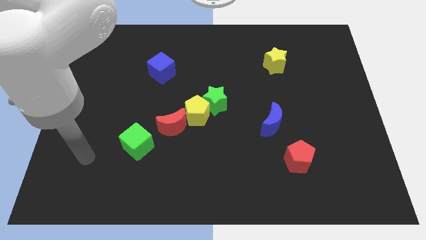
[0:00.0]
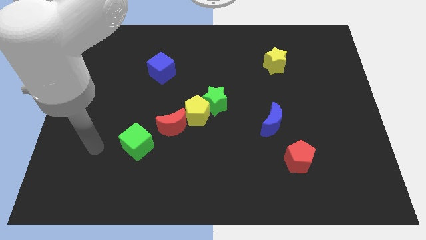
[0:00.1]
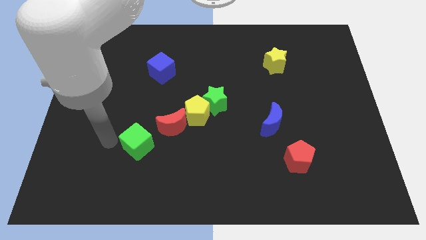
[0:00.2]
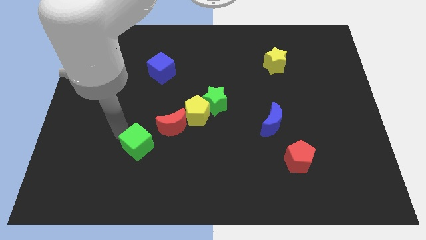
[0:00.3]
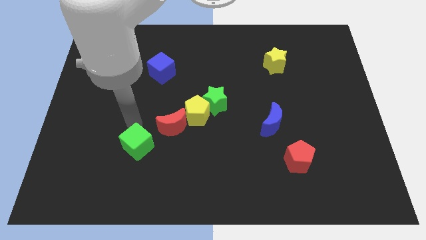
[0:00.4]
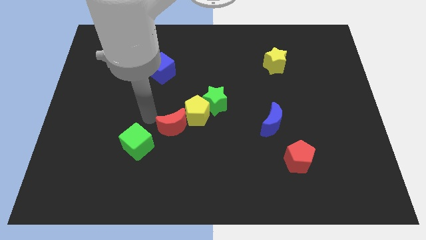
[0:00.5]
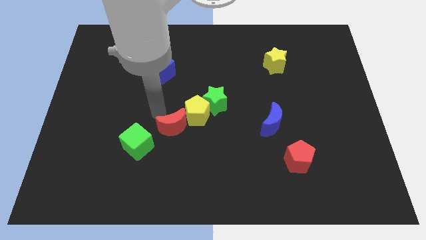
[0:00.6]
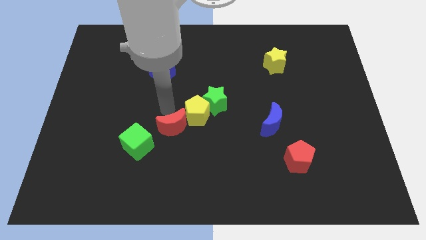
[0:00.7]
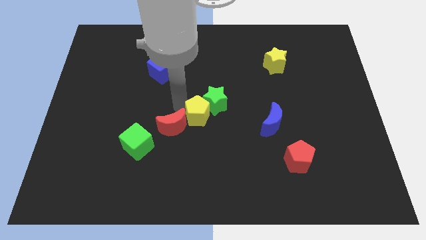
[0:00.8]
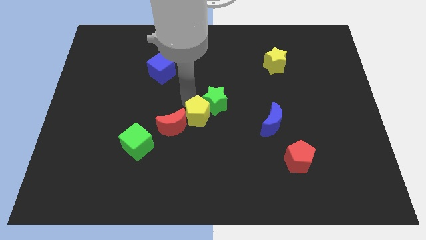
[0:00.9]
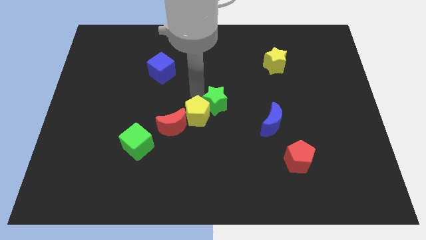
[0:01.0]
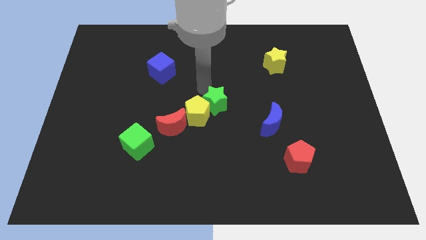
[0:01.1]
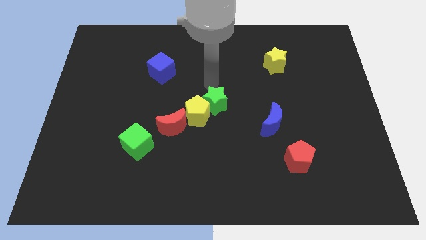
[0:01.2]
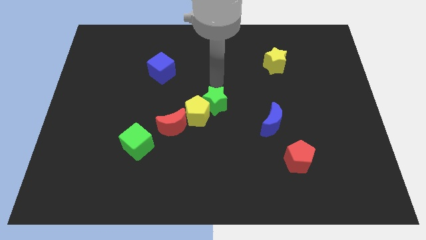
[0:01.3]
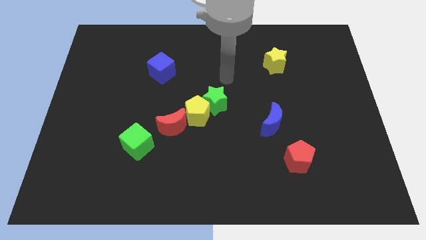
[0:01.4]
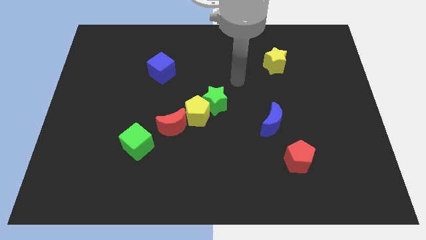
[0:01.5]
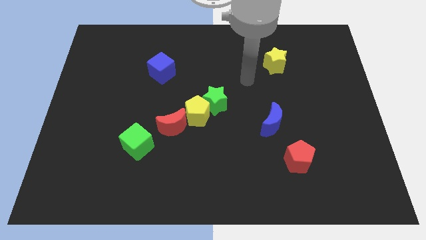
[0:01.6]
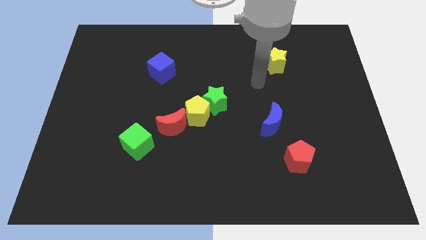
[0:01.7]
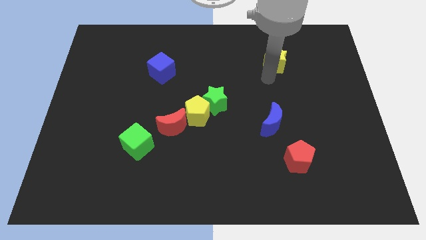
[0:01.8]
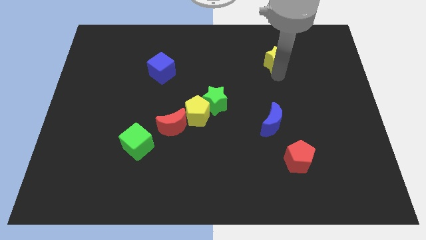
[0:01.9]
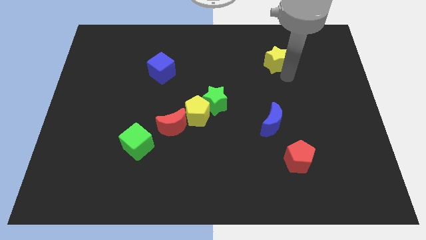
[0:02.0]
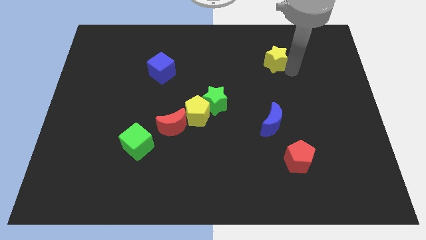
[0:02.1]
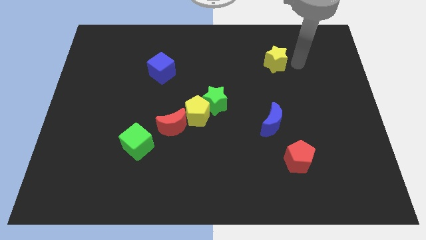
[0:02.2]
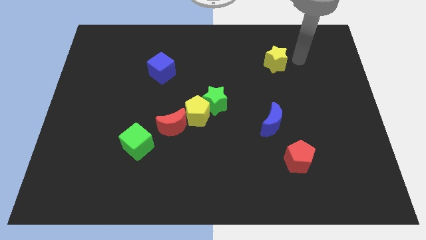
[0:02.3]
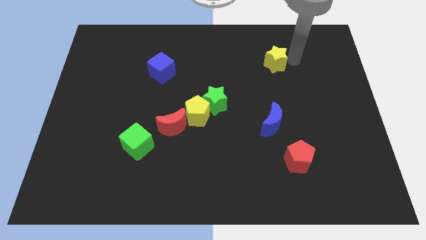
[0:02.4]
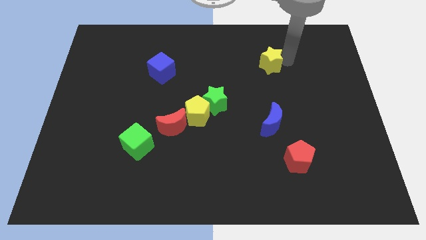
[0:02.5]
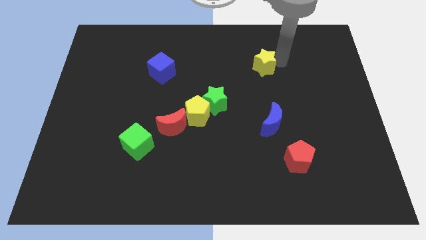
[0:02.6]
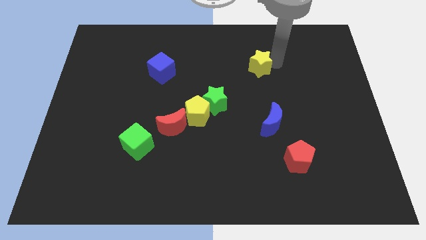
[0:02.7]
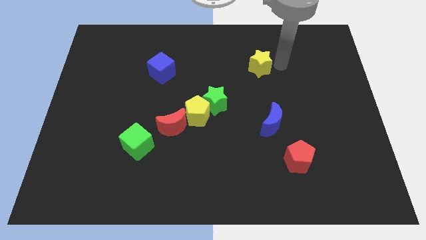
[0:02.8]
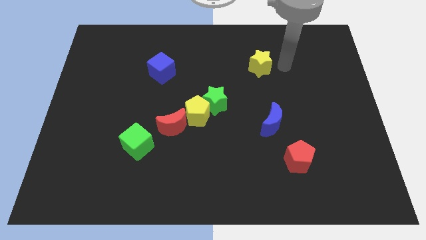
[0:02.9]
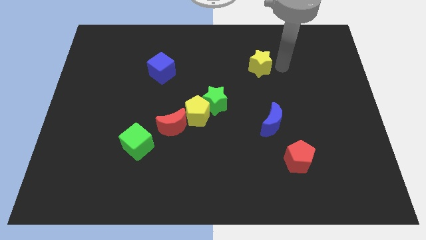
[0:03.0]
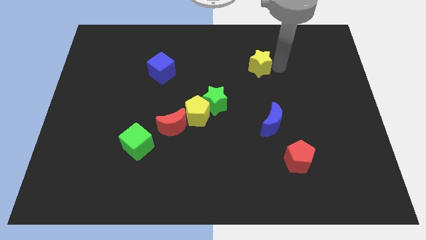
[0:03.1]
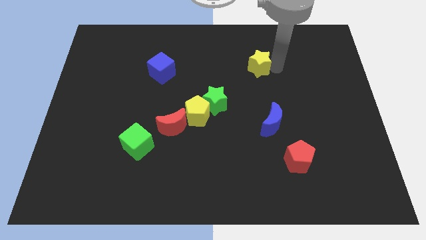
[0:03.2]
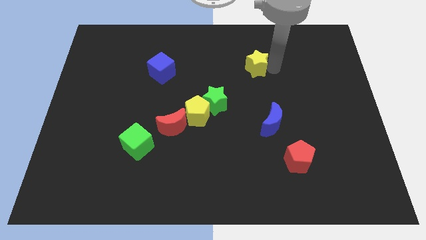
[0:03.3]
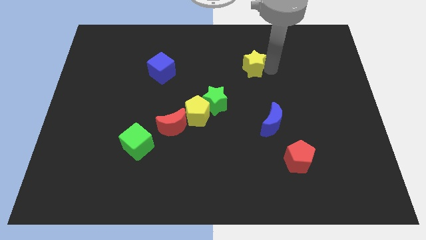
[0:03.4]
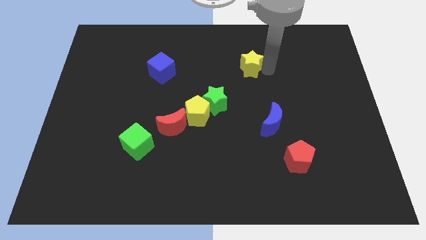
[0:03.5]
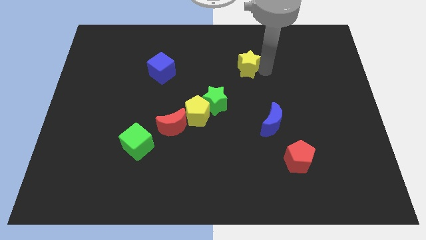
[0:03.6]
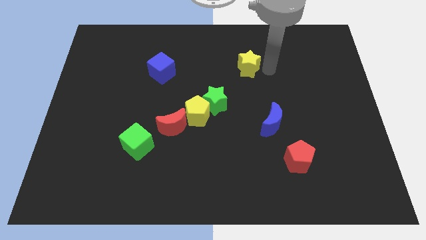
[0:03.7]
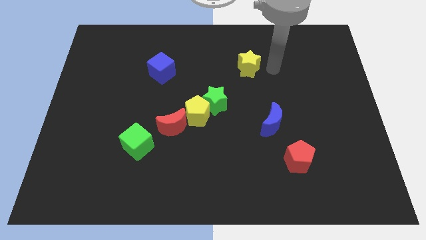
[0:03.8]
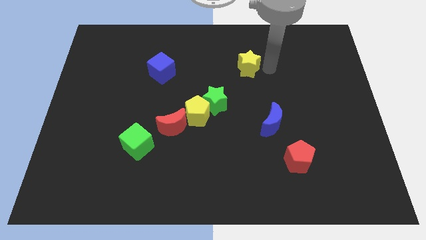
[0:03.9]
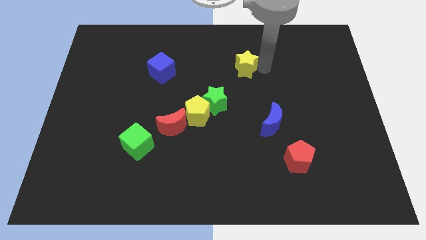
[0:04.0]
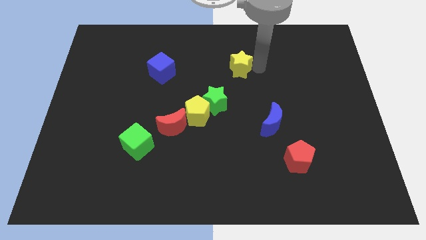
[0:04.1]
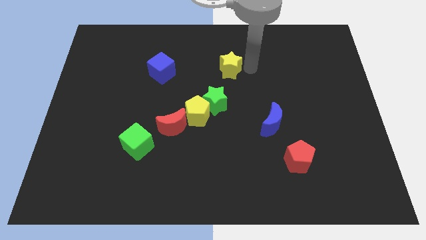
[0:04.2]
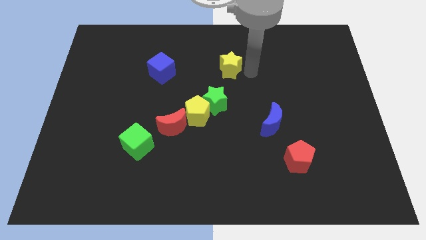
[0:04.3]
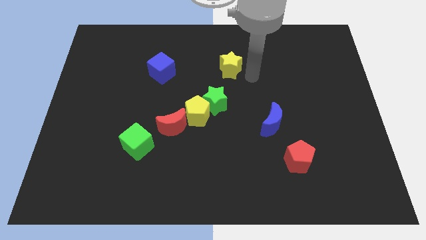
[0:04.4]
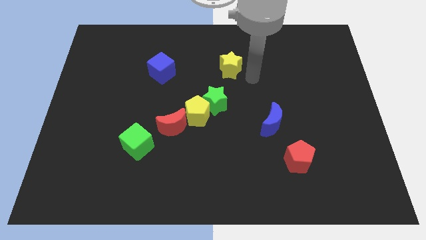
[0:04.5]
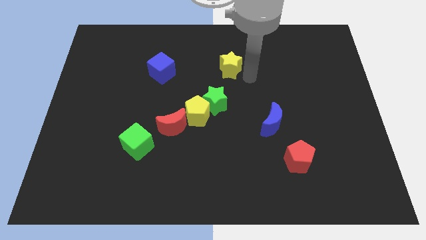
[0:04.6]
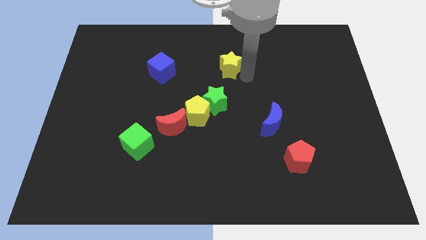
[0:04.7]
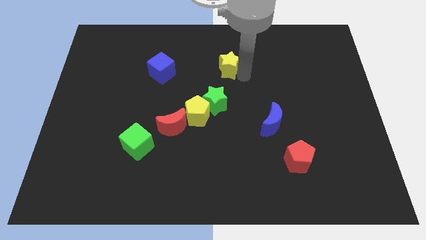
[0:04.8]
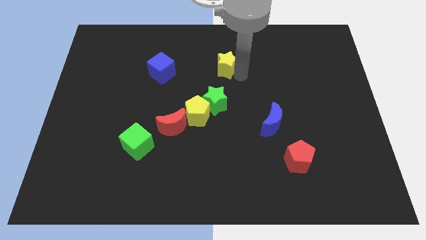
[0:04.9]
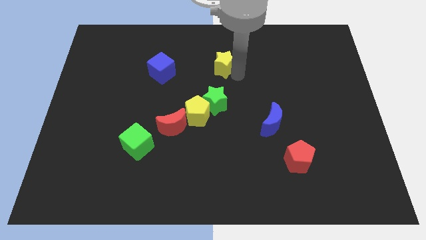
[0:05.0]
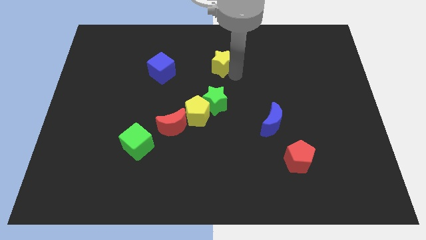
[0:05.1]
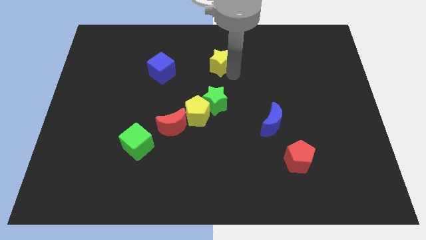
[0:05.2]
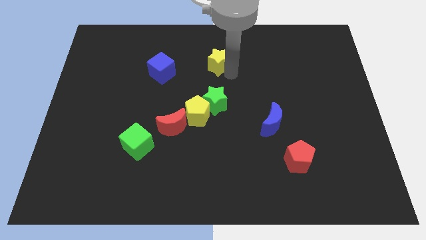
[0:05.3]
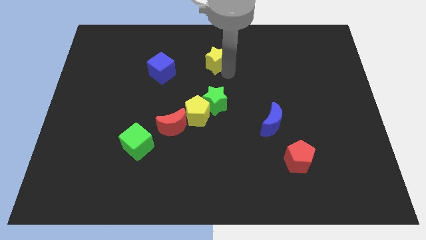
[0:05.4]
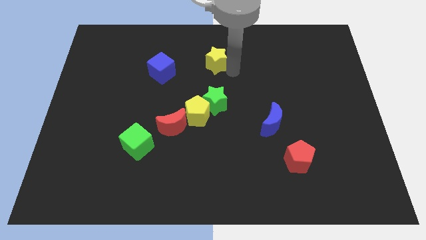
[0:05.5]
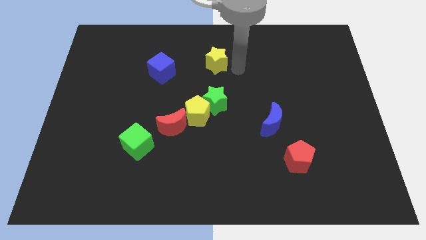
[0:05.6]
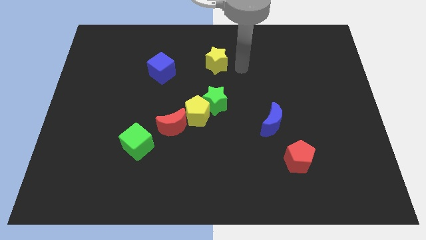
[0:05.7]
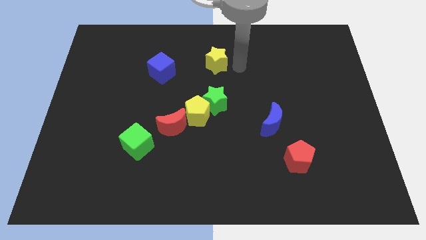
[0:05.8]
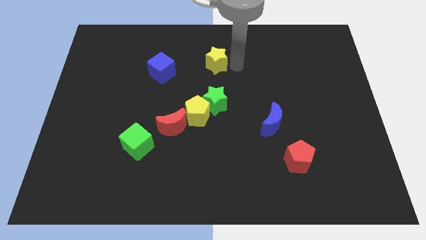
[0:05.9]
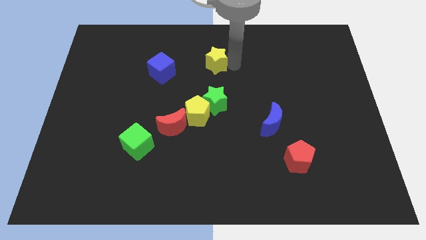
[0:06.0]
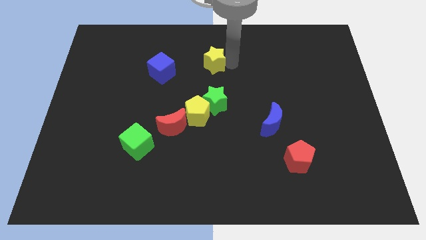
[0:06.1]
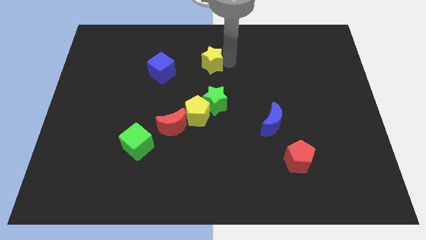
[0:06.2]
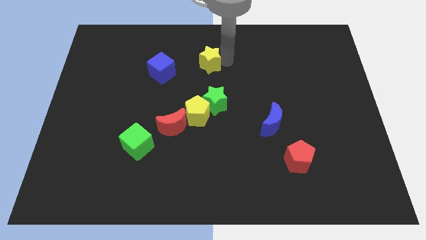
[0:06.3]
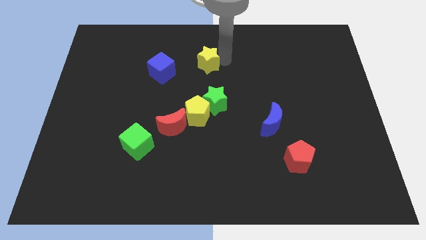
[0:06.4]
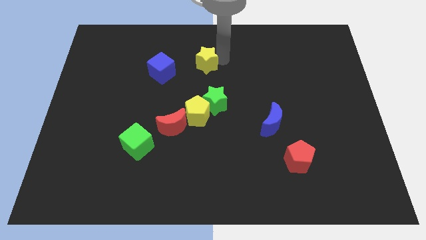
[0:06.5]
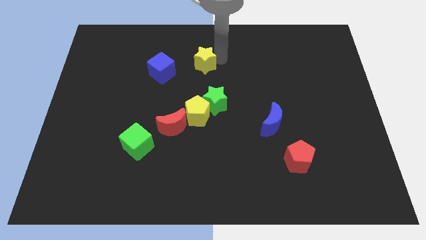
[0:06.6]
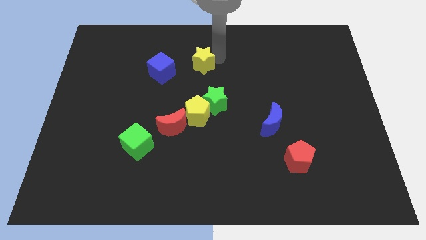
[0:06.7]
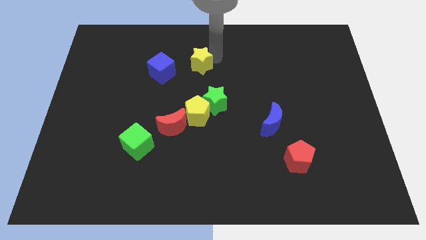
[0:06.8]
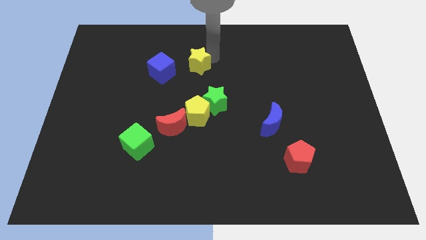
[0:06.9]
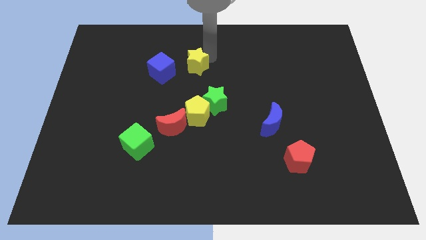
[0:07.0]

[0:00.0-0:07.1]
push the yellow star to the left

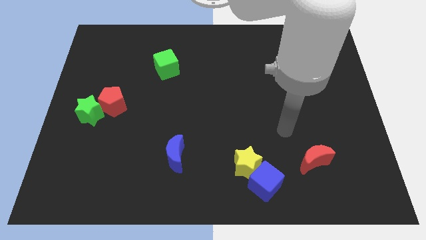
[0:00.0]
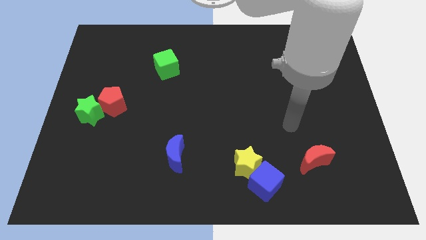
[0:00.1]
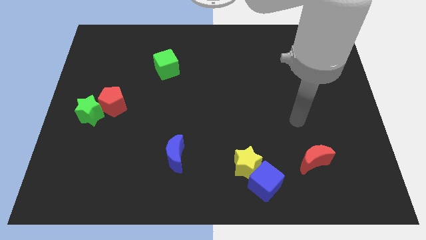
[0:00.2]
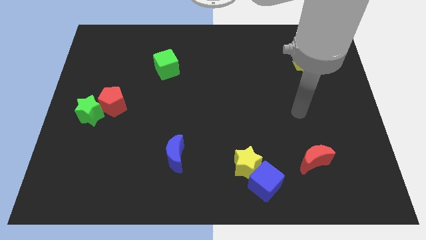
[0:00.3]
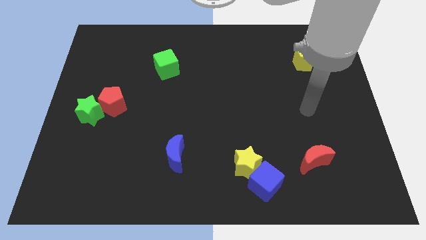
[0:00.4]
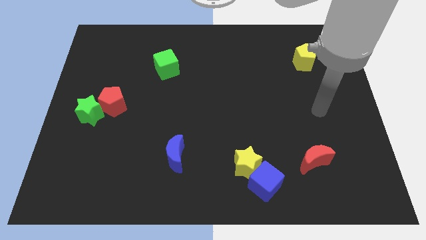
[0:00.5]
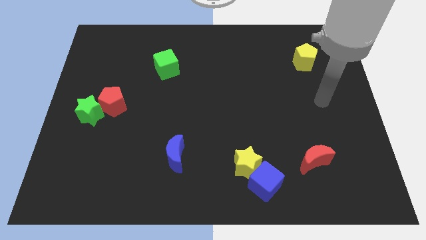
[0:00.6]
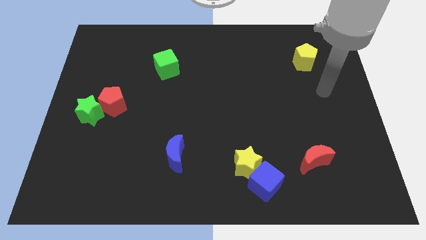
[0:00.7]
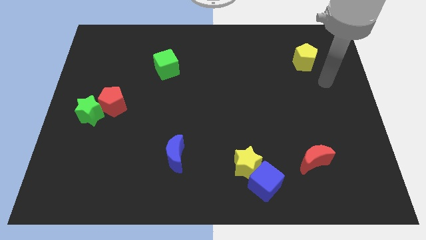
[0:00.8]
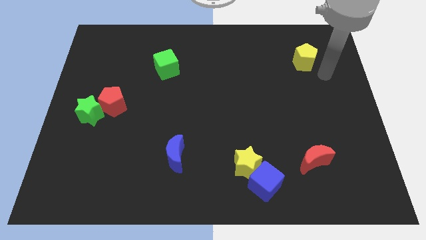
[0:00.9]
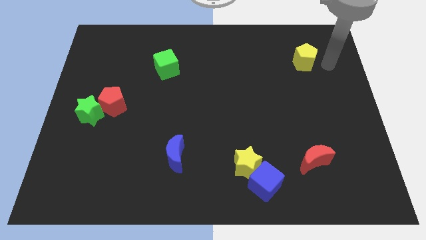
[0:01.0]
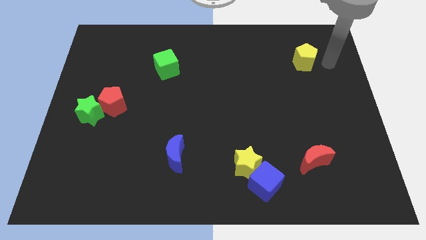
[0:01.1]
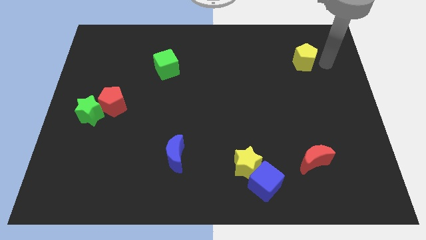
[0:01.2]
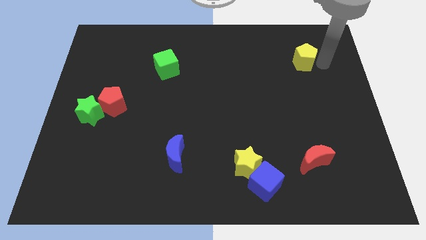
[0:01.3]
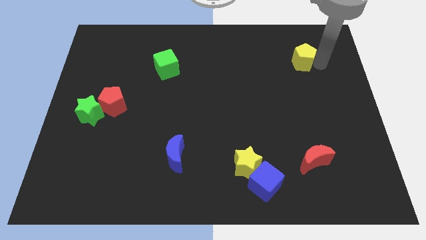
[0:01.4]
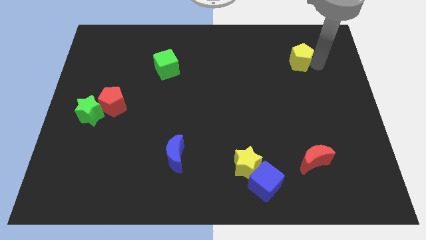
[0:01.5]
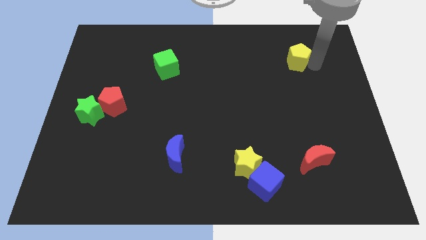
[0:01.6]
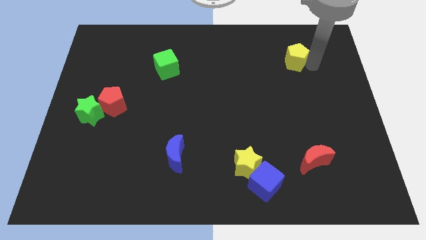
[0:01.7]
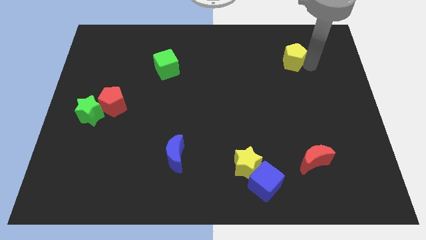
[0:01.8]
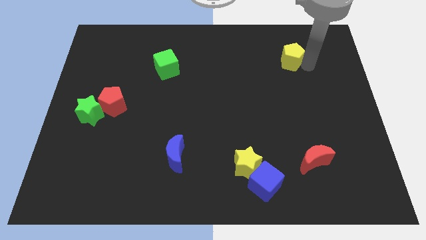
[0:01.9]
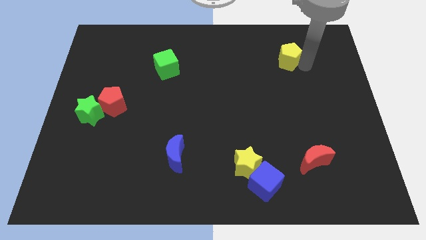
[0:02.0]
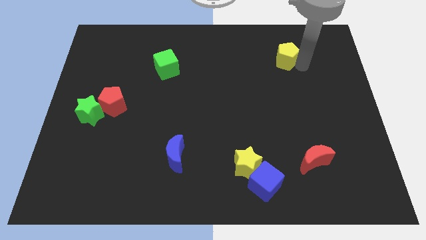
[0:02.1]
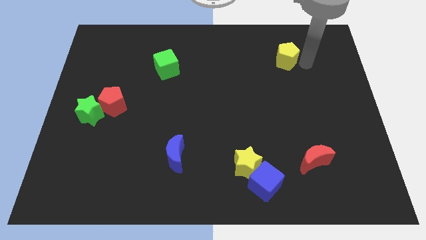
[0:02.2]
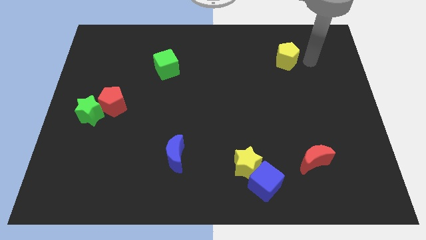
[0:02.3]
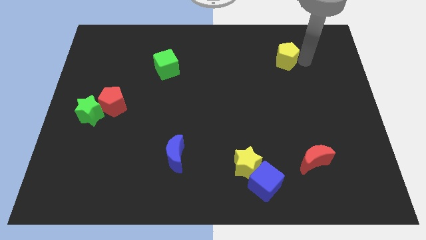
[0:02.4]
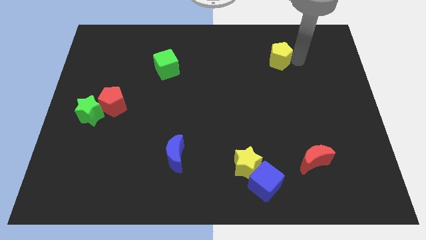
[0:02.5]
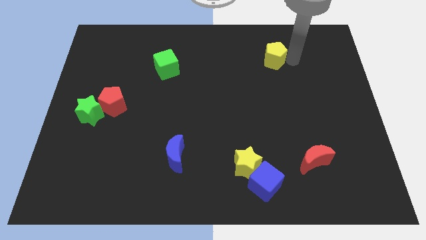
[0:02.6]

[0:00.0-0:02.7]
push the yellow pentagon to the left a little bit
